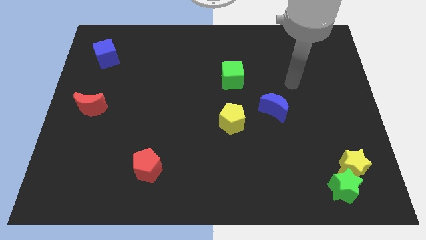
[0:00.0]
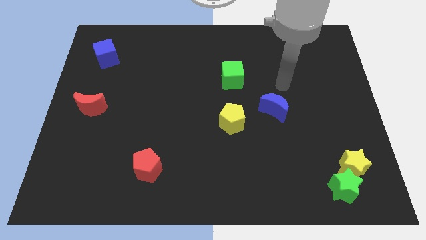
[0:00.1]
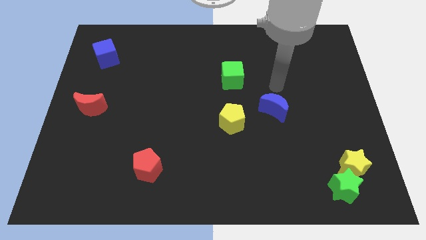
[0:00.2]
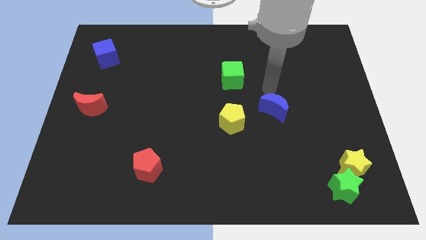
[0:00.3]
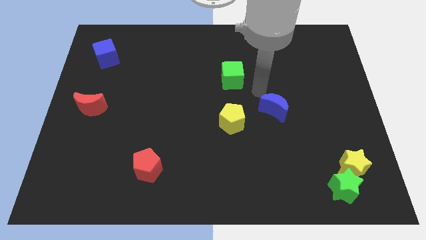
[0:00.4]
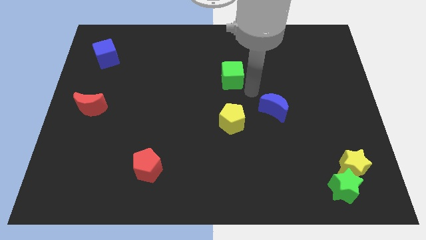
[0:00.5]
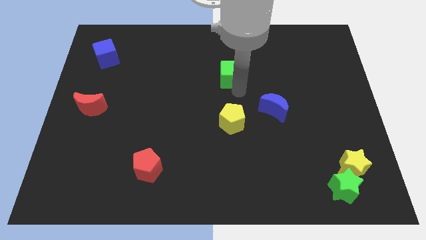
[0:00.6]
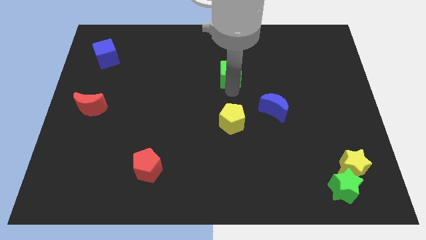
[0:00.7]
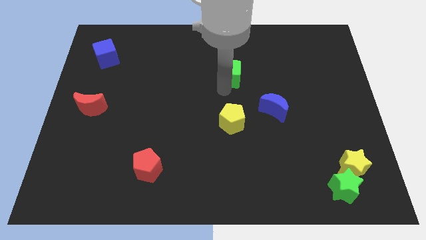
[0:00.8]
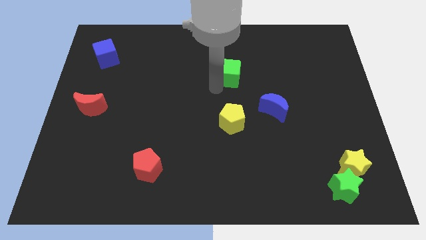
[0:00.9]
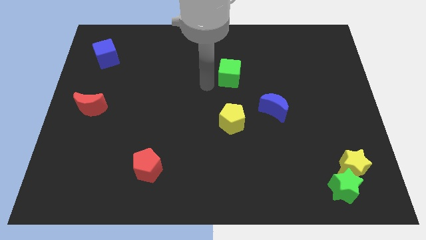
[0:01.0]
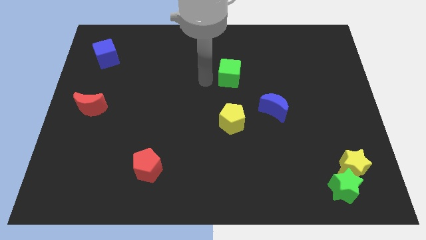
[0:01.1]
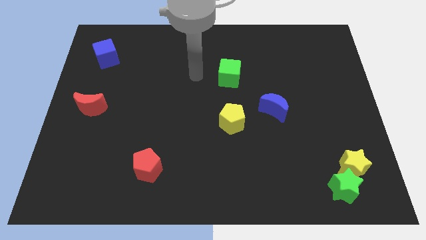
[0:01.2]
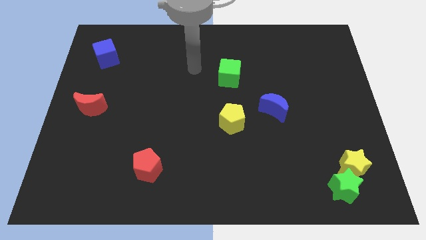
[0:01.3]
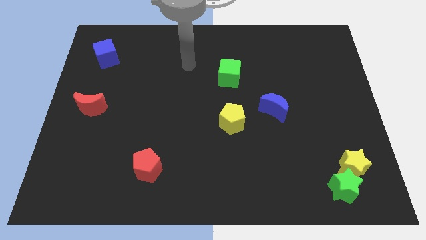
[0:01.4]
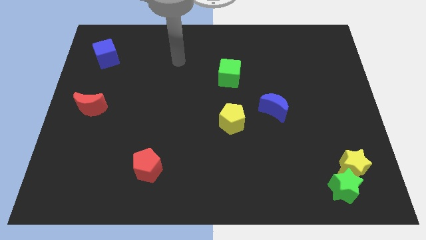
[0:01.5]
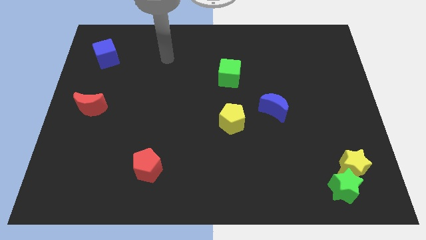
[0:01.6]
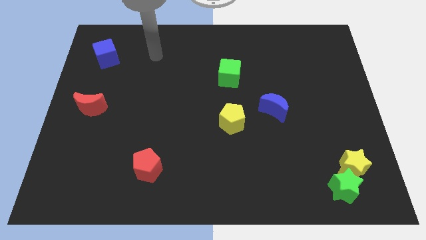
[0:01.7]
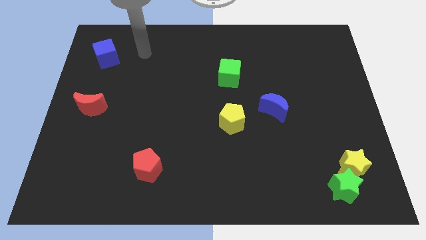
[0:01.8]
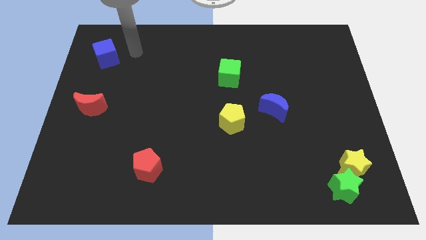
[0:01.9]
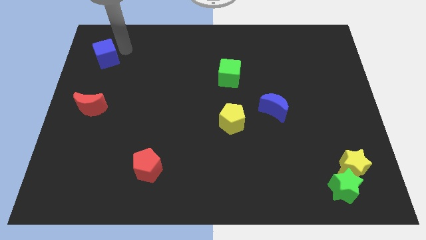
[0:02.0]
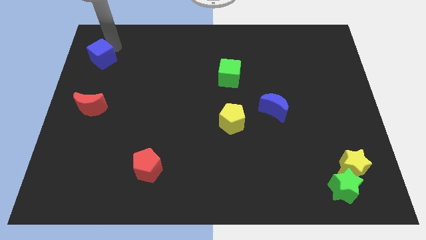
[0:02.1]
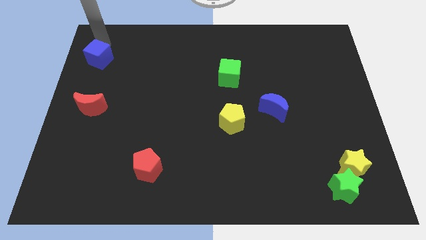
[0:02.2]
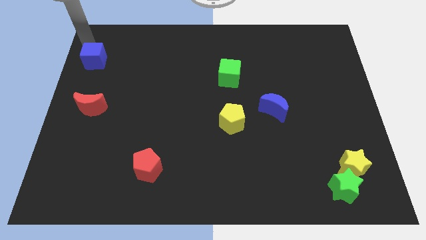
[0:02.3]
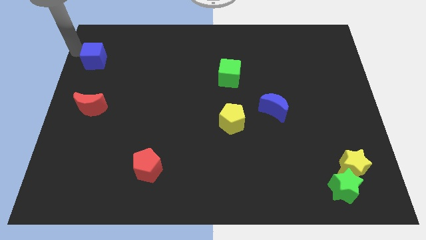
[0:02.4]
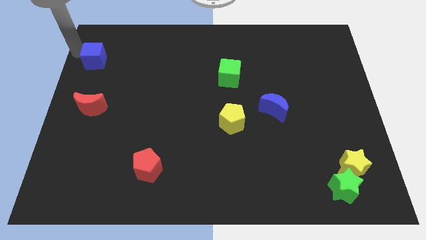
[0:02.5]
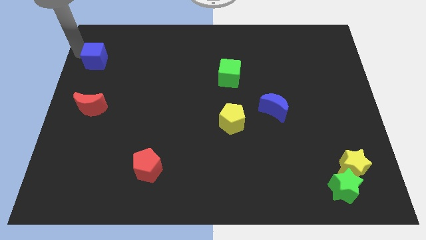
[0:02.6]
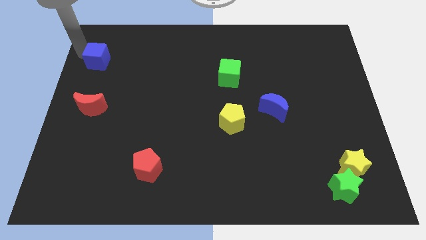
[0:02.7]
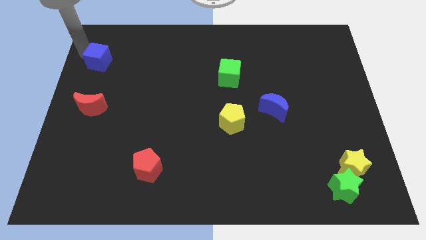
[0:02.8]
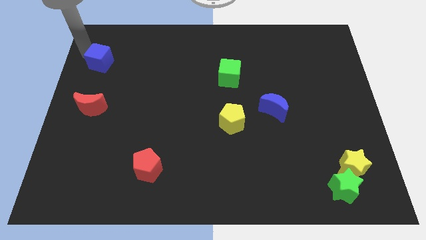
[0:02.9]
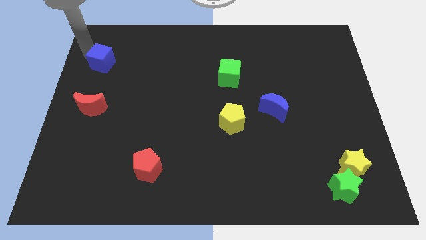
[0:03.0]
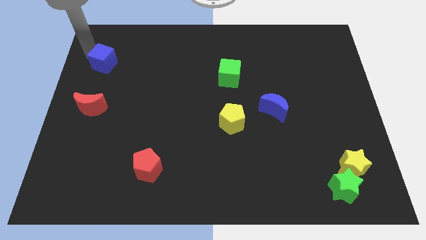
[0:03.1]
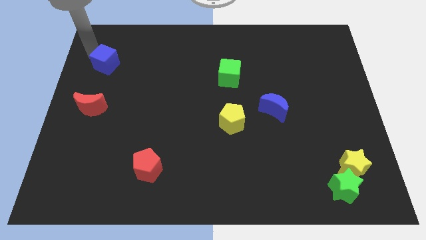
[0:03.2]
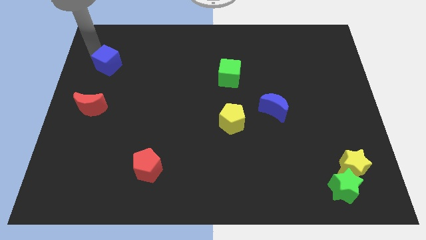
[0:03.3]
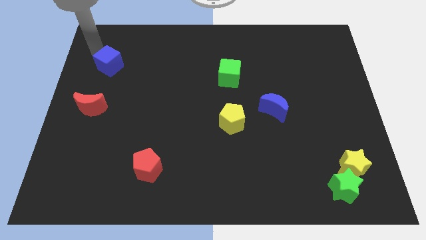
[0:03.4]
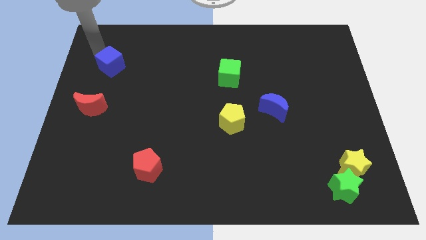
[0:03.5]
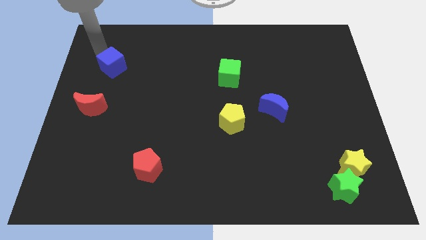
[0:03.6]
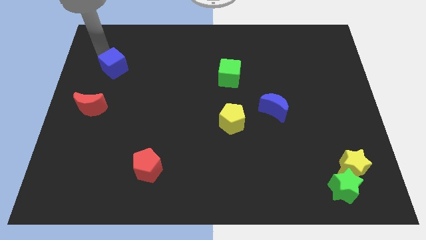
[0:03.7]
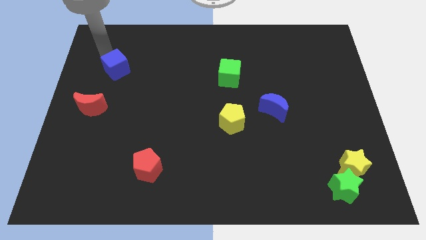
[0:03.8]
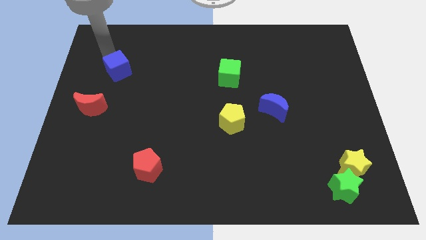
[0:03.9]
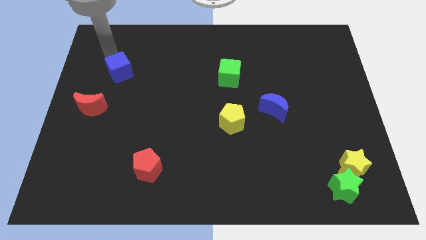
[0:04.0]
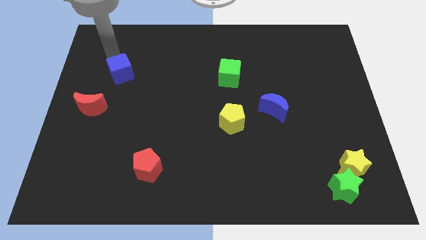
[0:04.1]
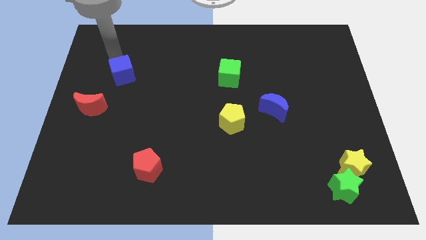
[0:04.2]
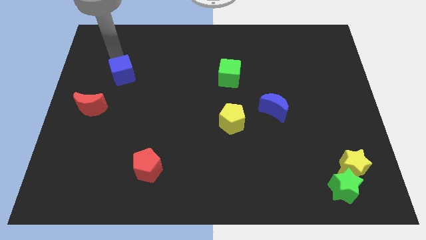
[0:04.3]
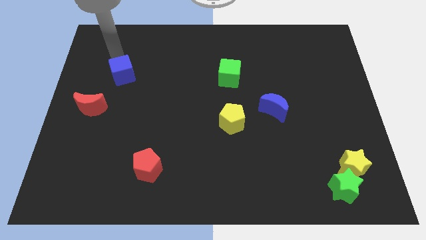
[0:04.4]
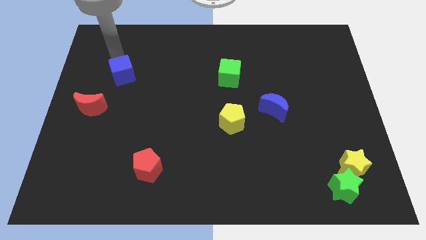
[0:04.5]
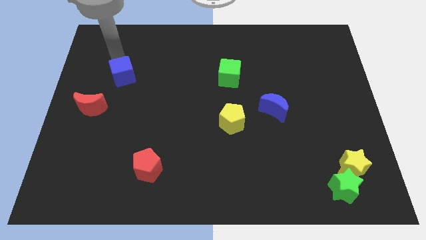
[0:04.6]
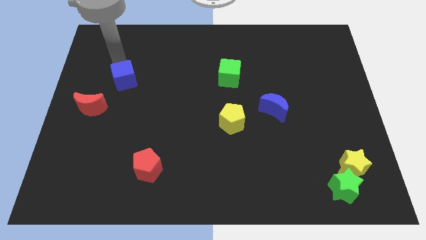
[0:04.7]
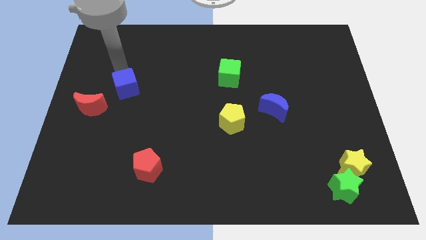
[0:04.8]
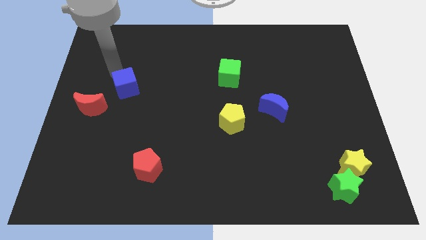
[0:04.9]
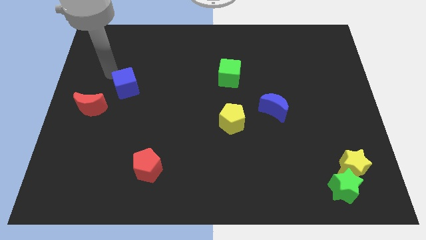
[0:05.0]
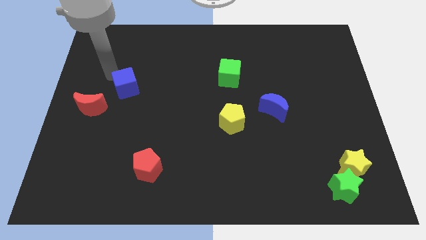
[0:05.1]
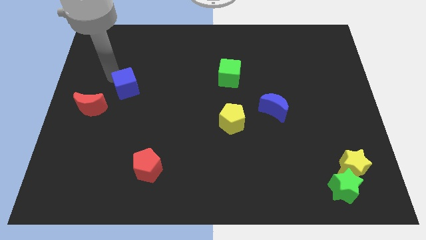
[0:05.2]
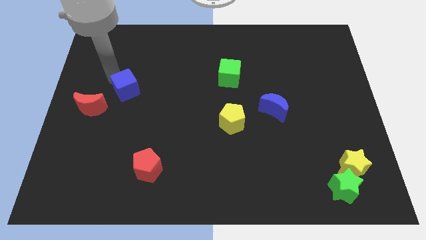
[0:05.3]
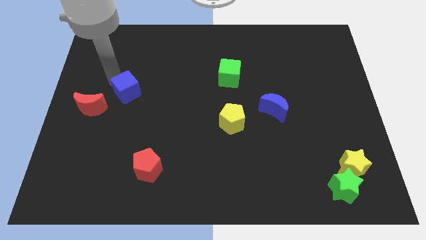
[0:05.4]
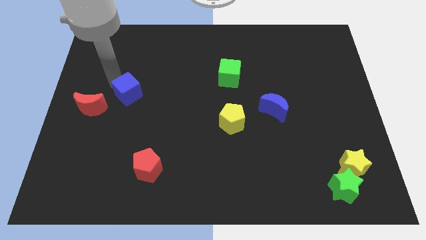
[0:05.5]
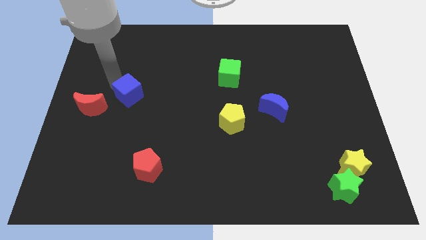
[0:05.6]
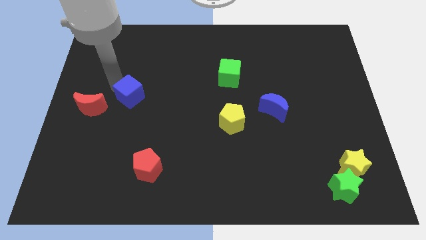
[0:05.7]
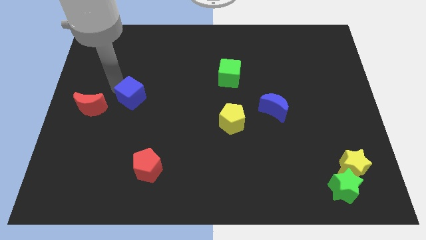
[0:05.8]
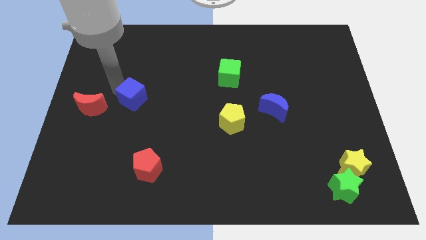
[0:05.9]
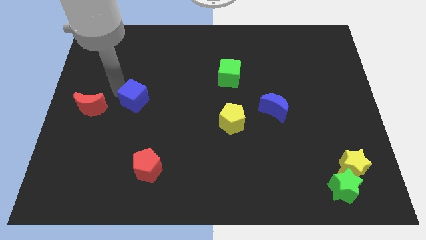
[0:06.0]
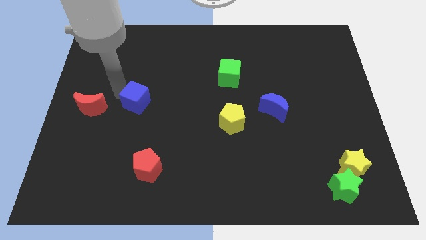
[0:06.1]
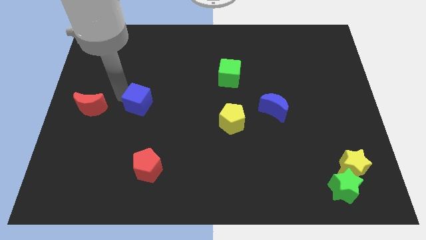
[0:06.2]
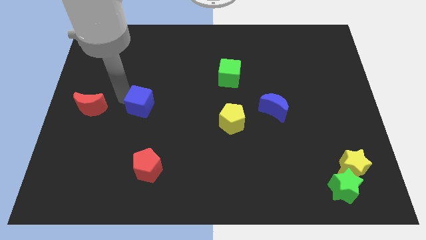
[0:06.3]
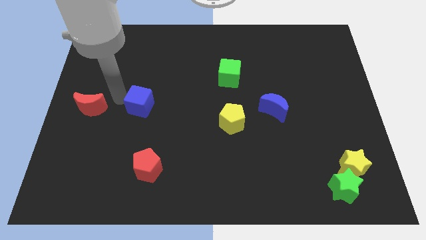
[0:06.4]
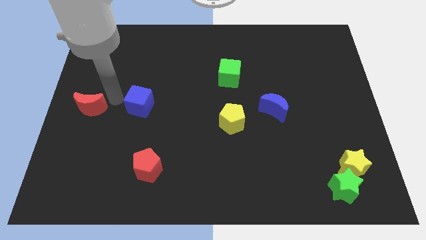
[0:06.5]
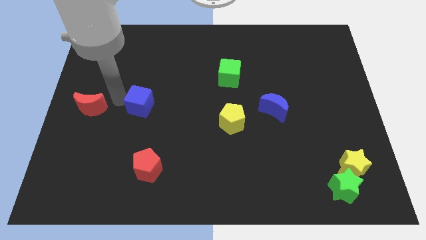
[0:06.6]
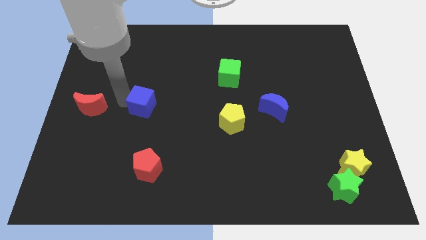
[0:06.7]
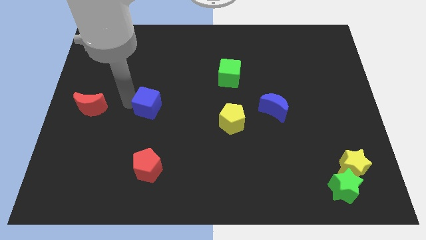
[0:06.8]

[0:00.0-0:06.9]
slide the blue cube downwards and right diagonally

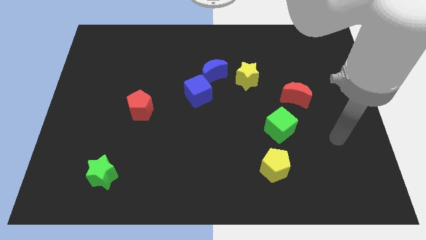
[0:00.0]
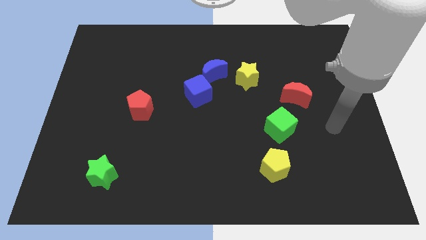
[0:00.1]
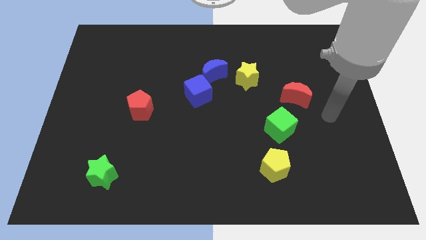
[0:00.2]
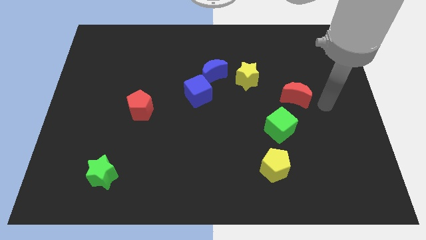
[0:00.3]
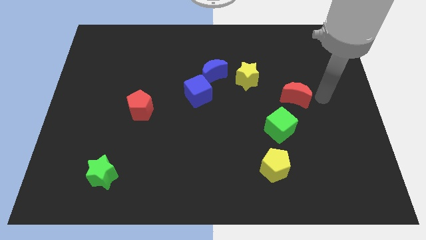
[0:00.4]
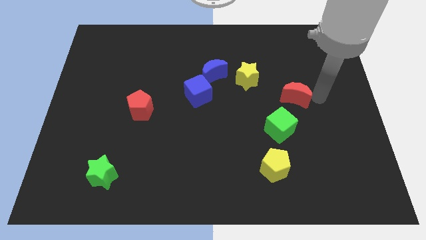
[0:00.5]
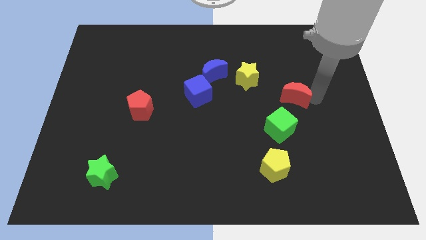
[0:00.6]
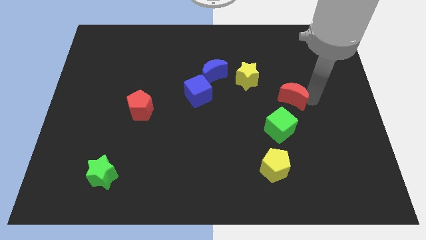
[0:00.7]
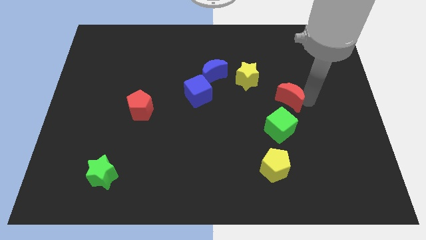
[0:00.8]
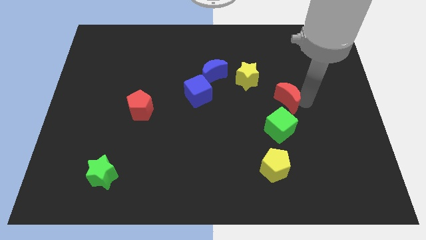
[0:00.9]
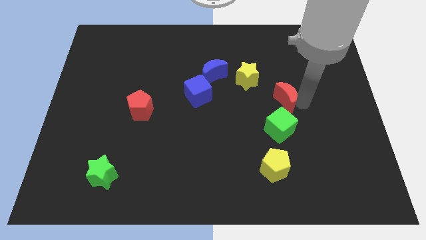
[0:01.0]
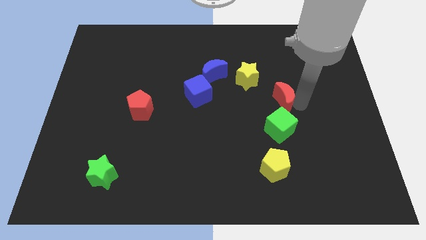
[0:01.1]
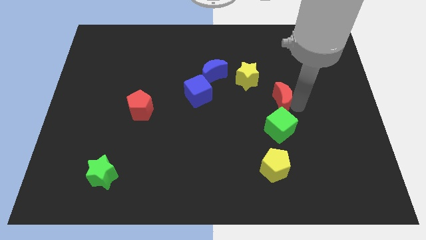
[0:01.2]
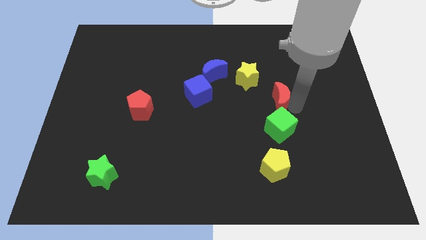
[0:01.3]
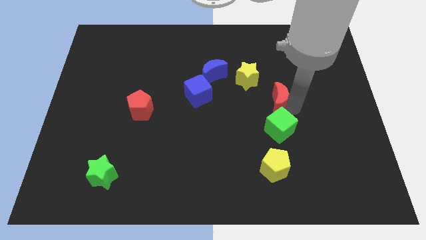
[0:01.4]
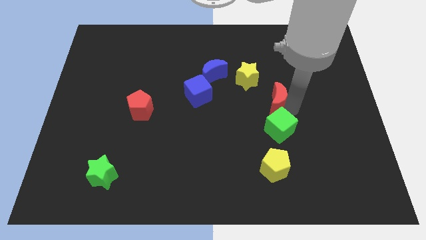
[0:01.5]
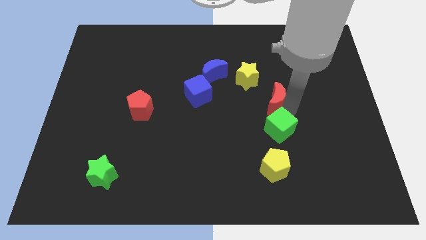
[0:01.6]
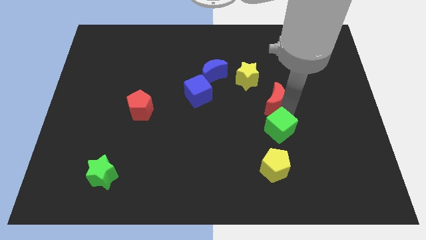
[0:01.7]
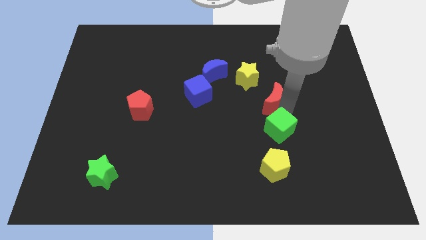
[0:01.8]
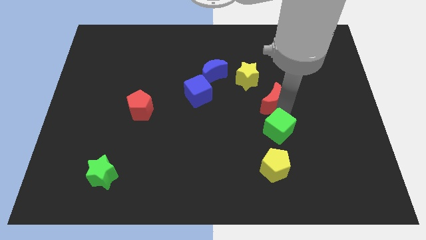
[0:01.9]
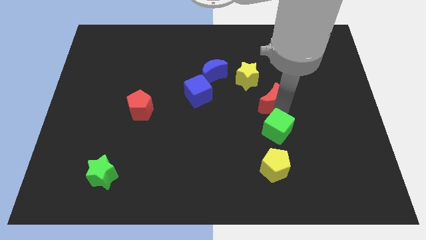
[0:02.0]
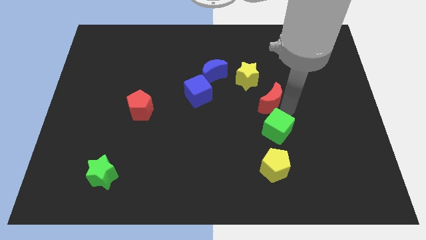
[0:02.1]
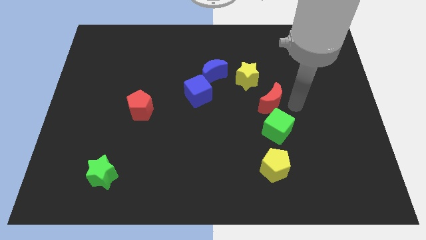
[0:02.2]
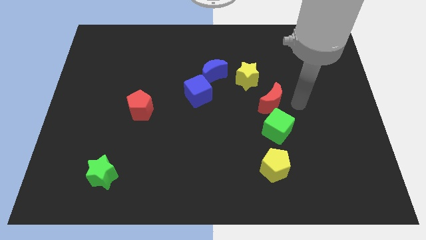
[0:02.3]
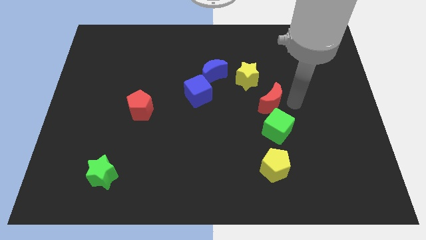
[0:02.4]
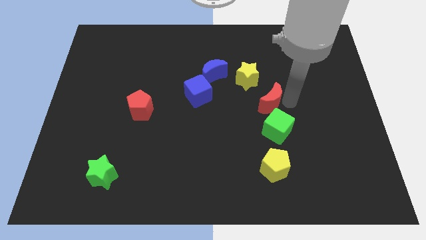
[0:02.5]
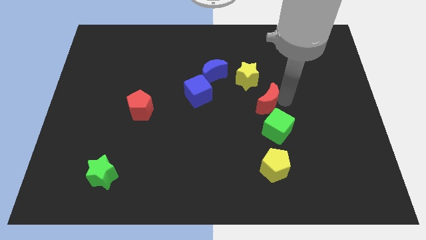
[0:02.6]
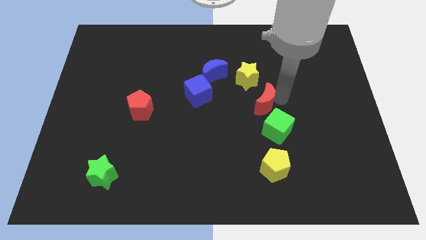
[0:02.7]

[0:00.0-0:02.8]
slide the red moon to the left a bit
